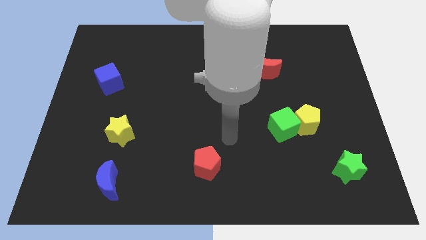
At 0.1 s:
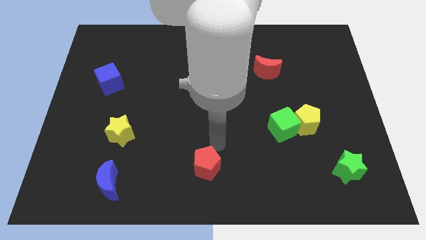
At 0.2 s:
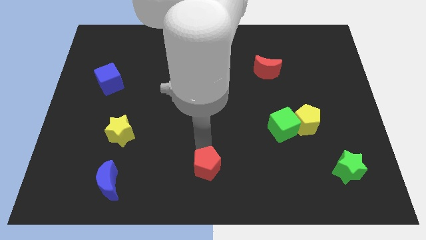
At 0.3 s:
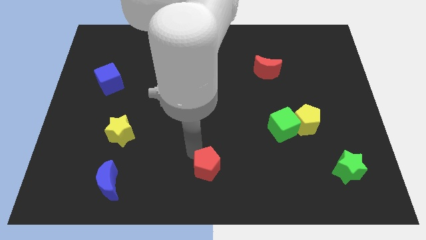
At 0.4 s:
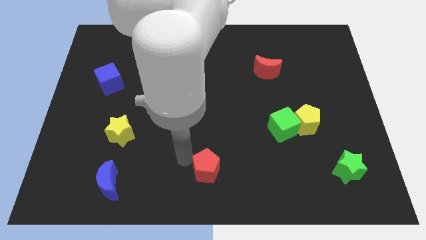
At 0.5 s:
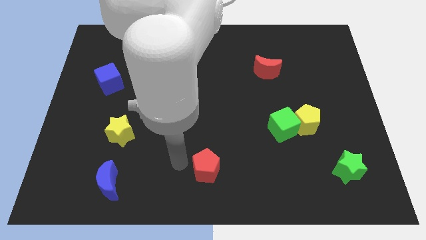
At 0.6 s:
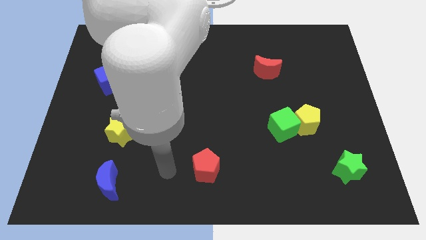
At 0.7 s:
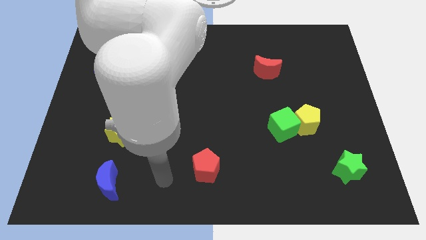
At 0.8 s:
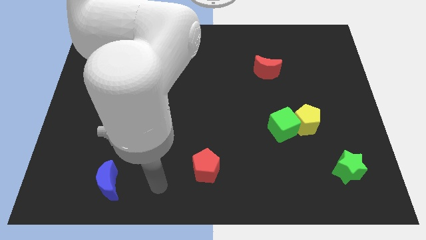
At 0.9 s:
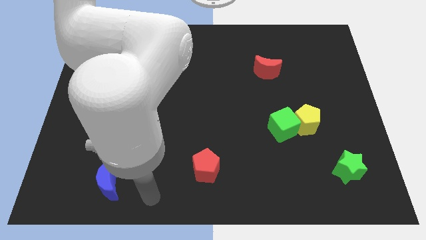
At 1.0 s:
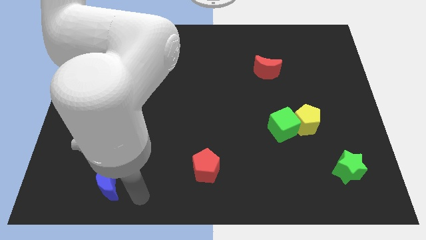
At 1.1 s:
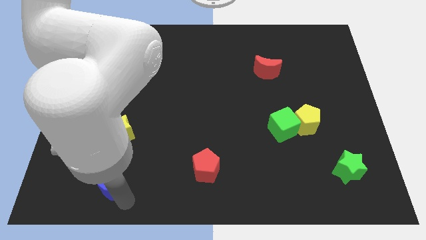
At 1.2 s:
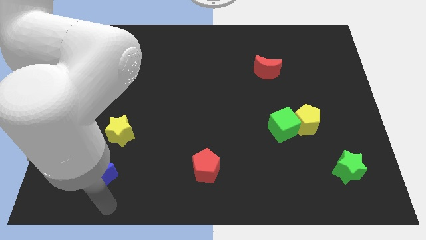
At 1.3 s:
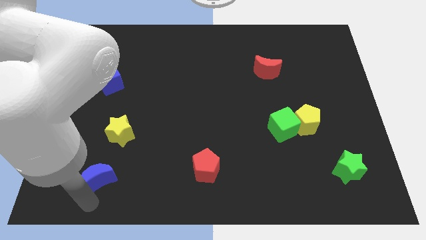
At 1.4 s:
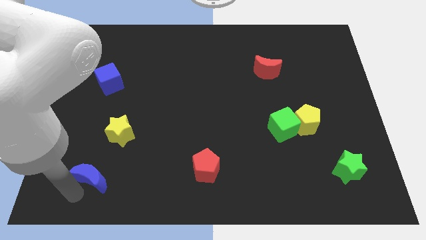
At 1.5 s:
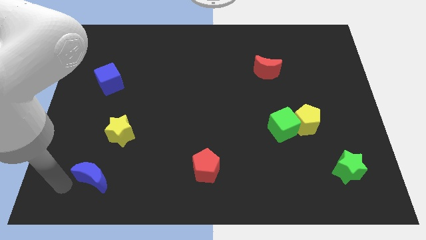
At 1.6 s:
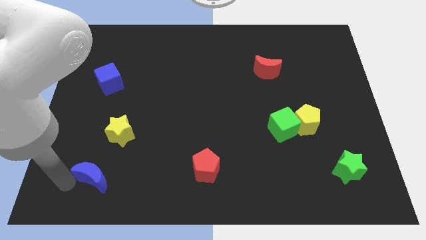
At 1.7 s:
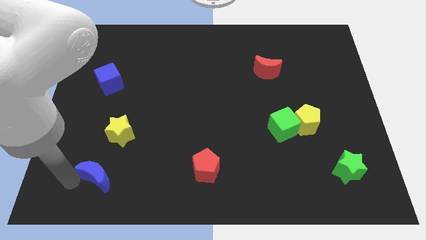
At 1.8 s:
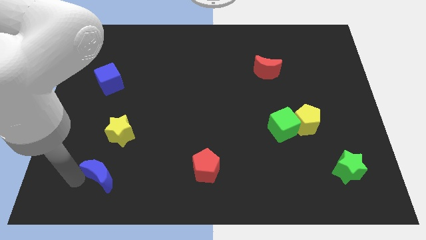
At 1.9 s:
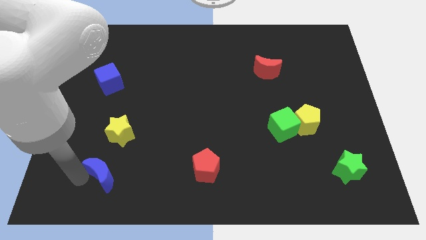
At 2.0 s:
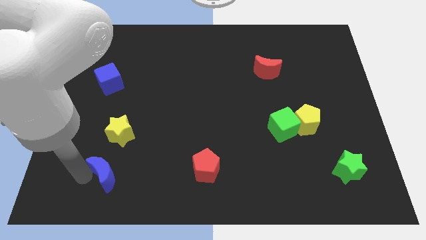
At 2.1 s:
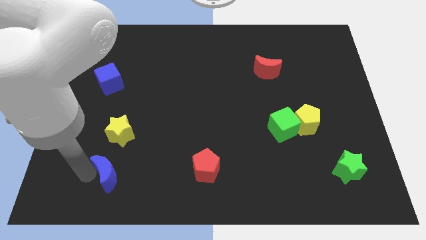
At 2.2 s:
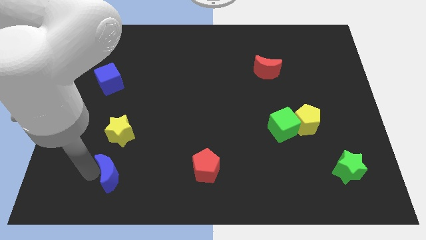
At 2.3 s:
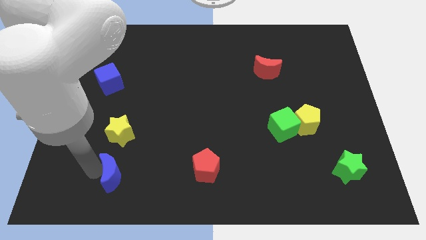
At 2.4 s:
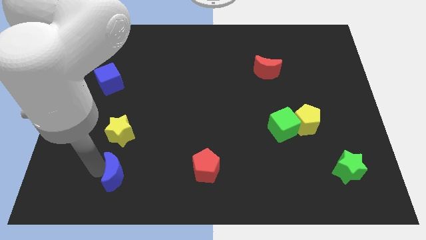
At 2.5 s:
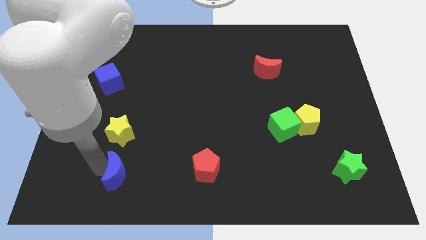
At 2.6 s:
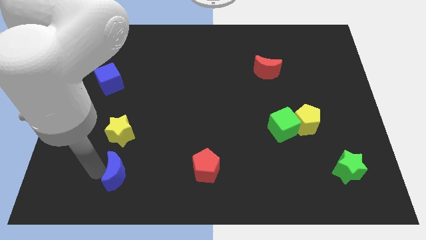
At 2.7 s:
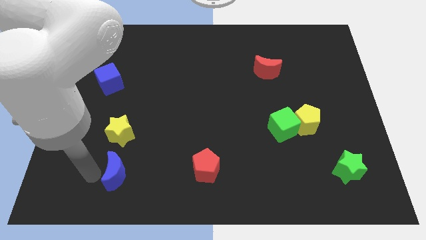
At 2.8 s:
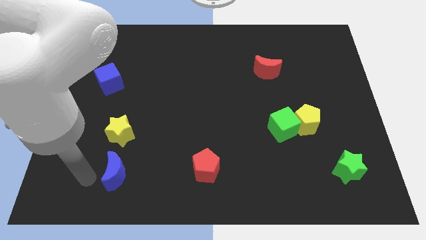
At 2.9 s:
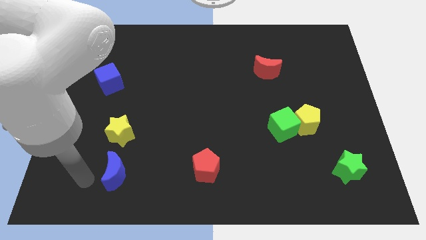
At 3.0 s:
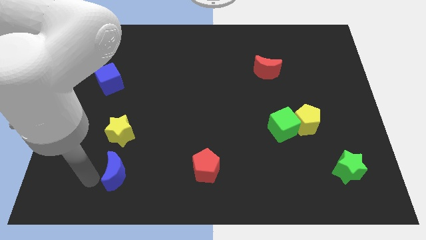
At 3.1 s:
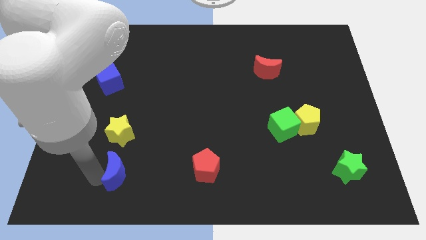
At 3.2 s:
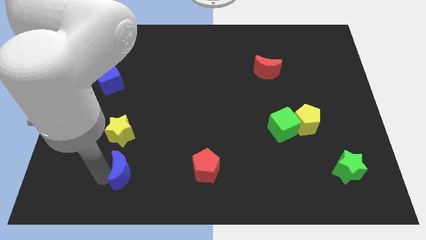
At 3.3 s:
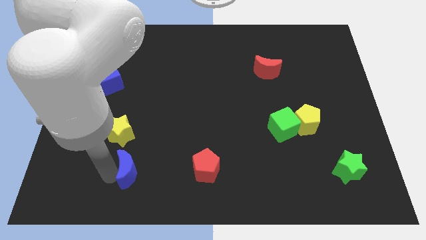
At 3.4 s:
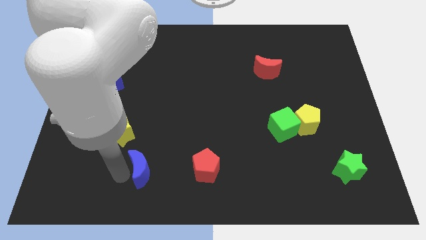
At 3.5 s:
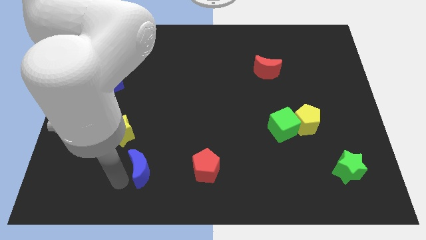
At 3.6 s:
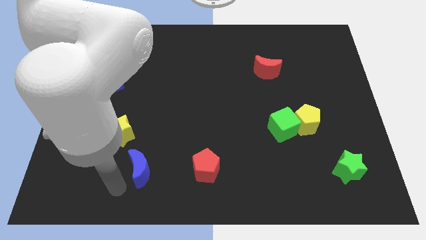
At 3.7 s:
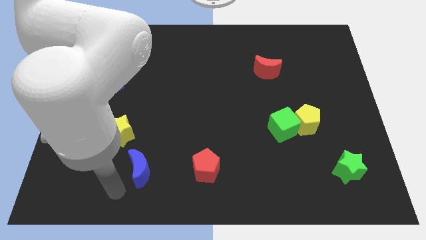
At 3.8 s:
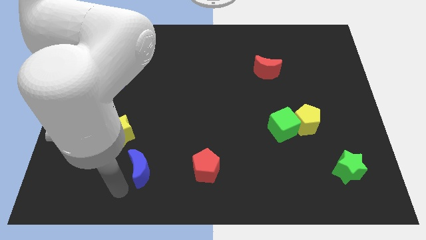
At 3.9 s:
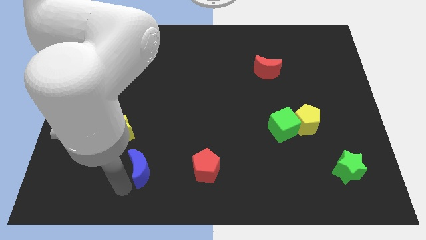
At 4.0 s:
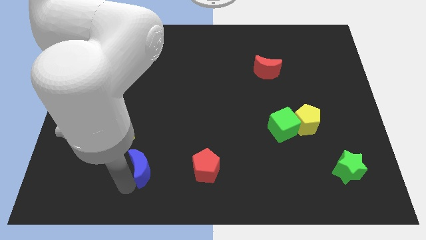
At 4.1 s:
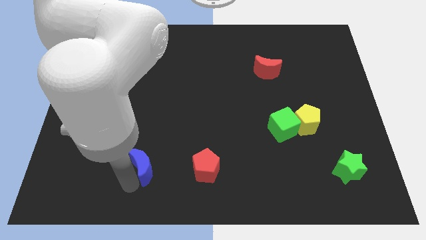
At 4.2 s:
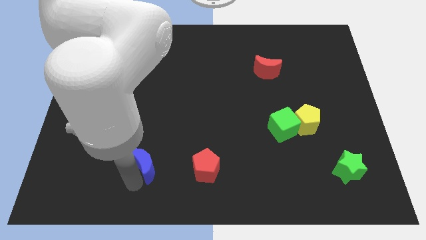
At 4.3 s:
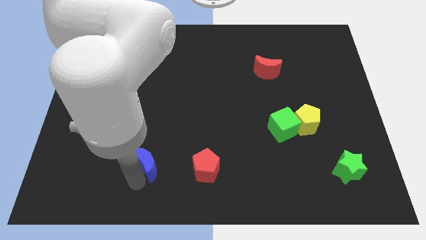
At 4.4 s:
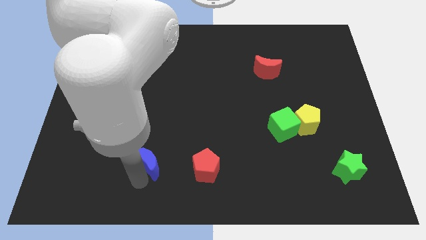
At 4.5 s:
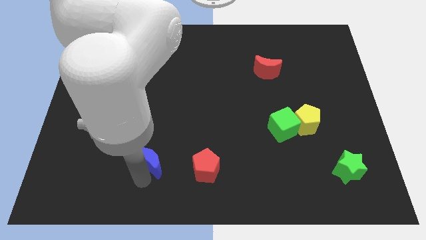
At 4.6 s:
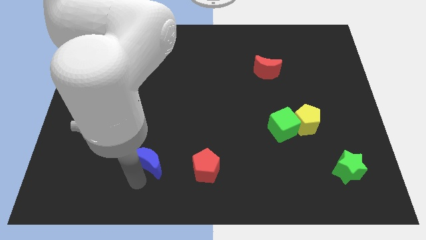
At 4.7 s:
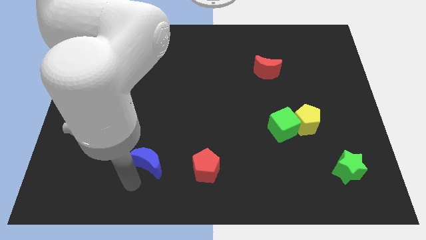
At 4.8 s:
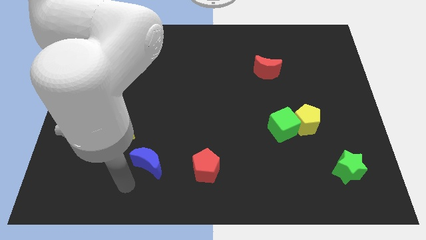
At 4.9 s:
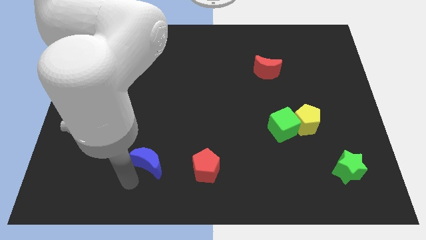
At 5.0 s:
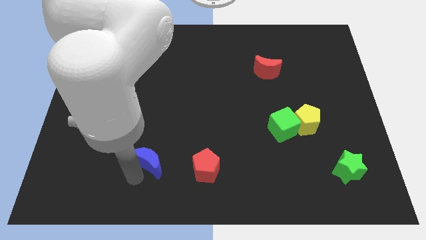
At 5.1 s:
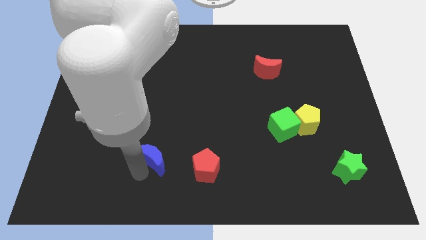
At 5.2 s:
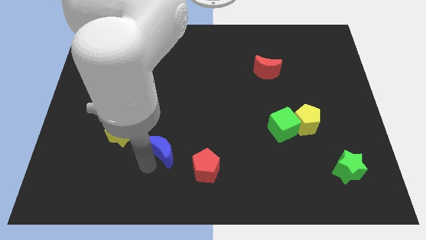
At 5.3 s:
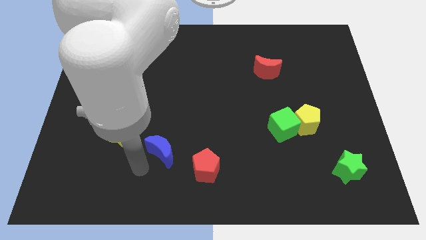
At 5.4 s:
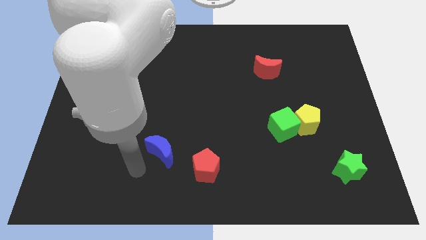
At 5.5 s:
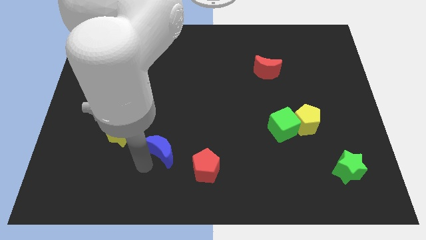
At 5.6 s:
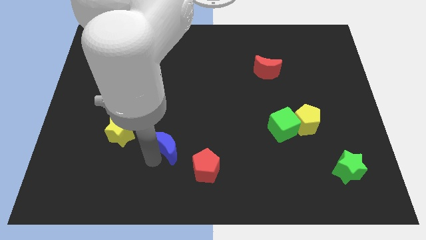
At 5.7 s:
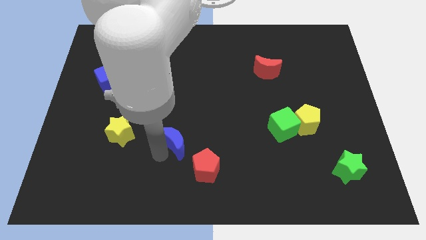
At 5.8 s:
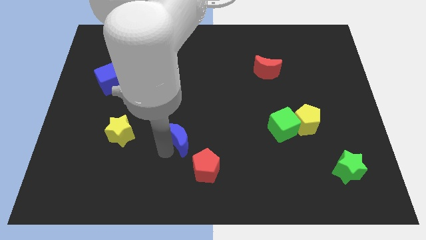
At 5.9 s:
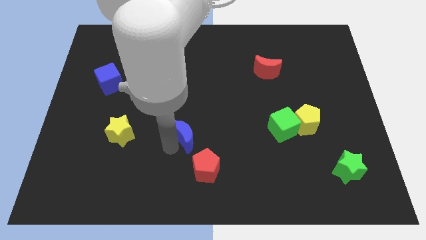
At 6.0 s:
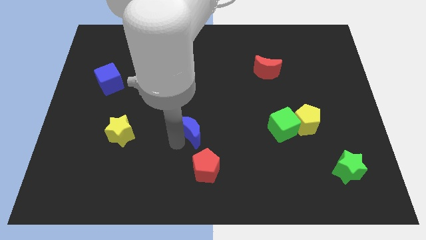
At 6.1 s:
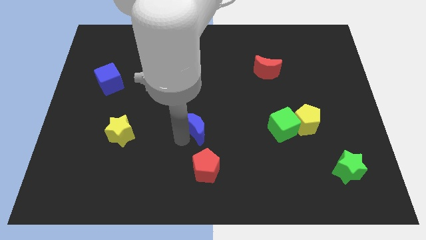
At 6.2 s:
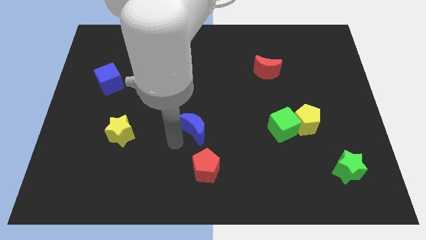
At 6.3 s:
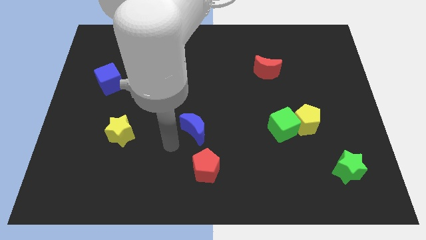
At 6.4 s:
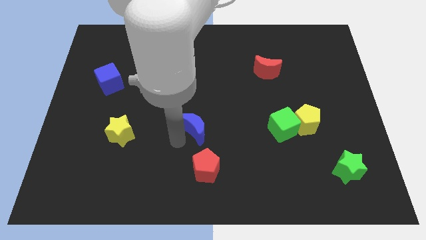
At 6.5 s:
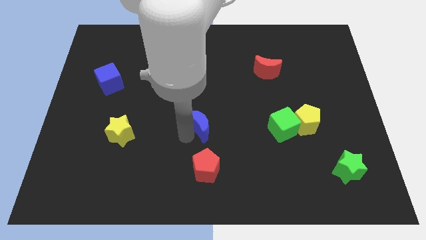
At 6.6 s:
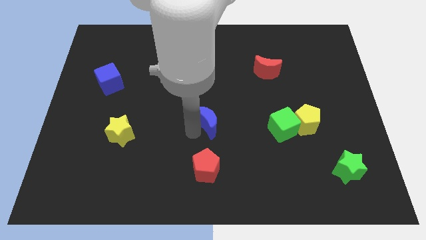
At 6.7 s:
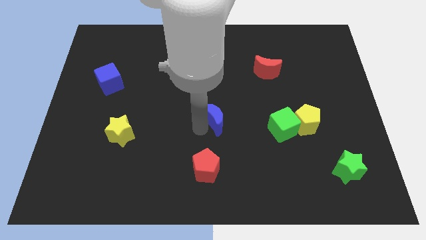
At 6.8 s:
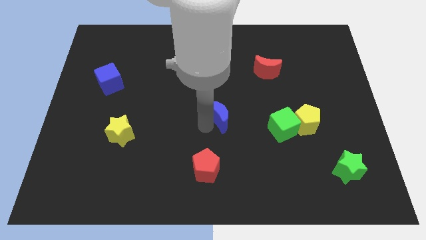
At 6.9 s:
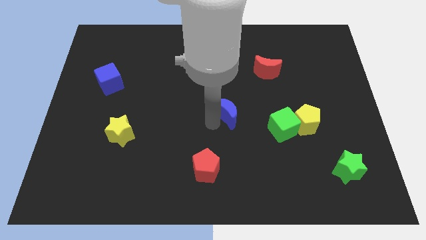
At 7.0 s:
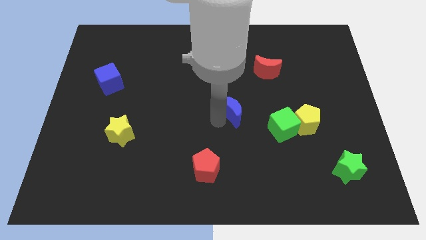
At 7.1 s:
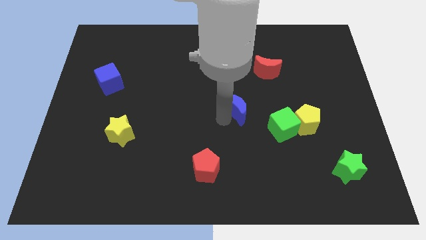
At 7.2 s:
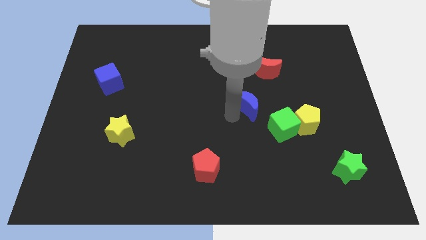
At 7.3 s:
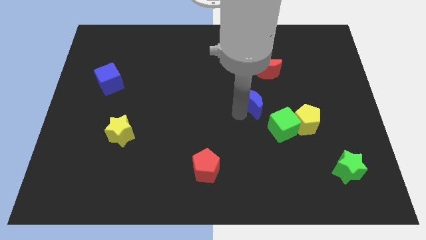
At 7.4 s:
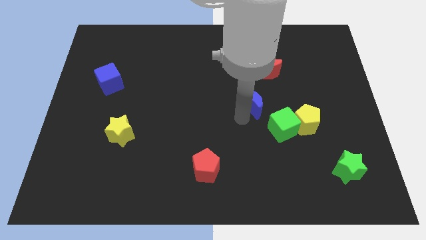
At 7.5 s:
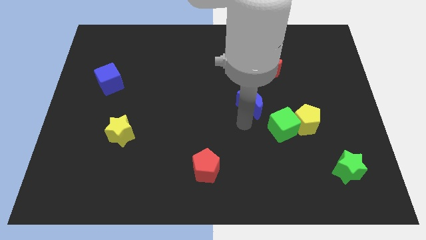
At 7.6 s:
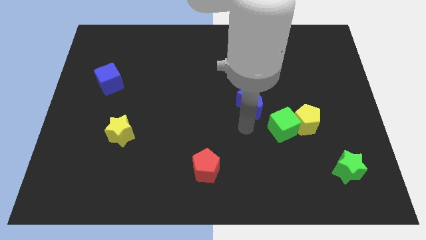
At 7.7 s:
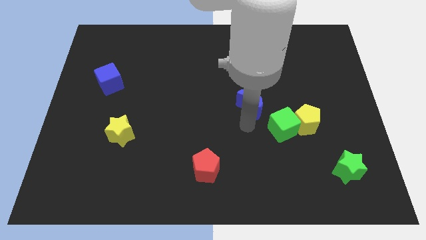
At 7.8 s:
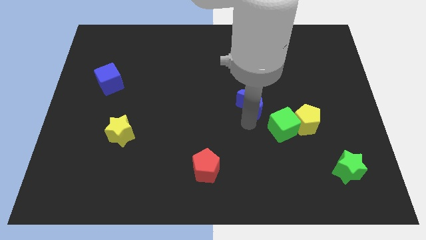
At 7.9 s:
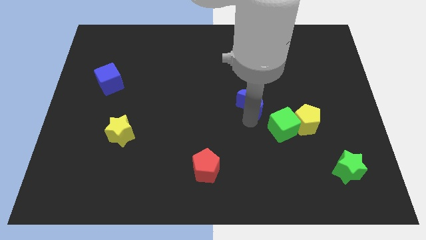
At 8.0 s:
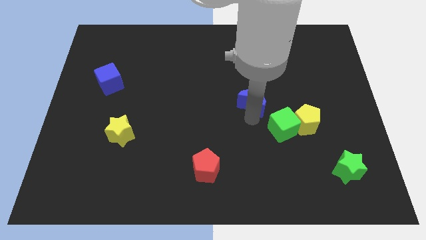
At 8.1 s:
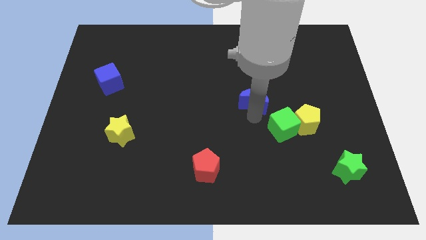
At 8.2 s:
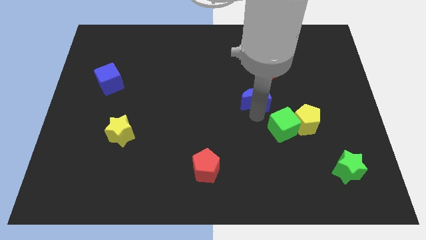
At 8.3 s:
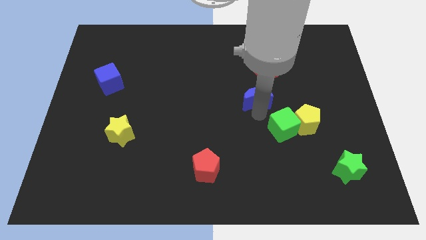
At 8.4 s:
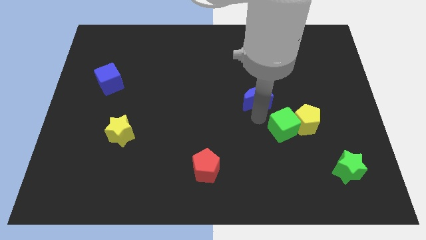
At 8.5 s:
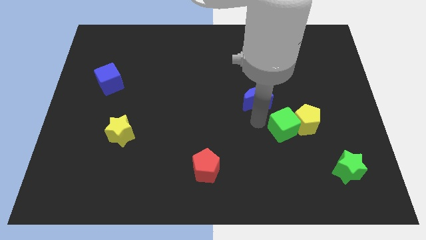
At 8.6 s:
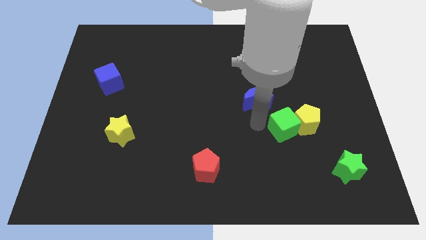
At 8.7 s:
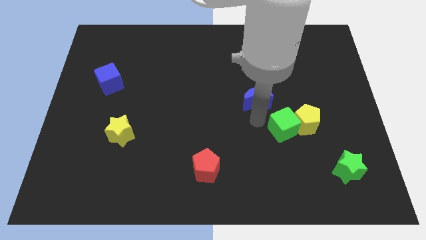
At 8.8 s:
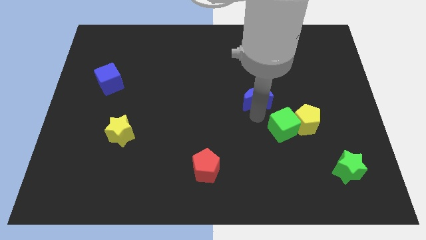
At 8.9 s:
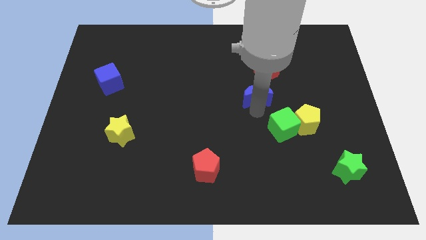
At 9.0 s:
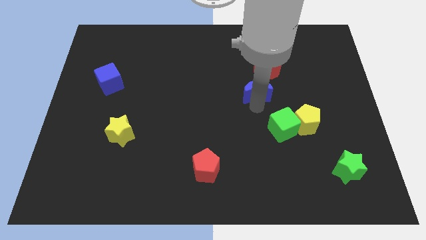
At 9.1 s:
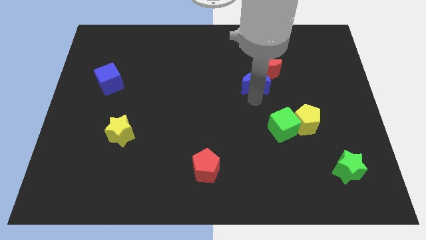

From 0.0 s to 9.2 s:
slide the blue moon close to the red moon
